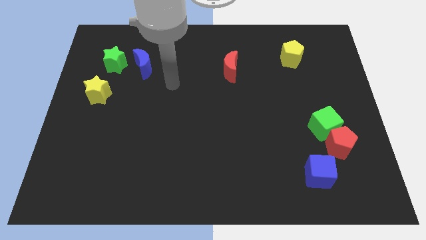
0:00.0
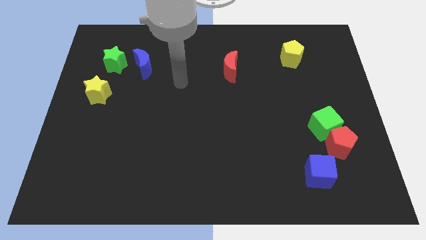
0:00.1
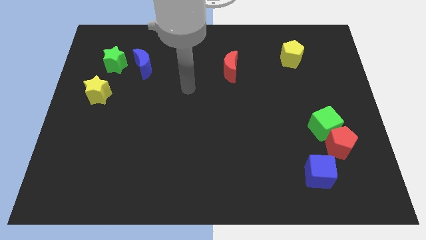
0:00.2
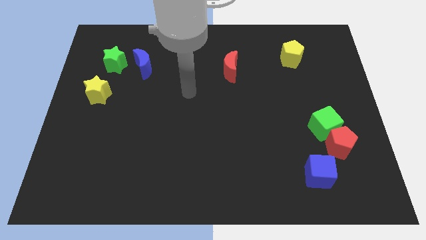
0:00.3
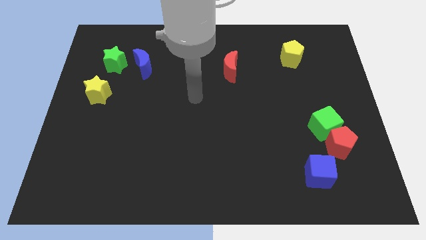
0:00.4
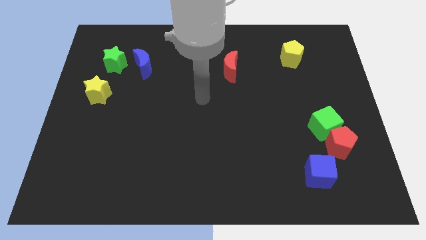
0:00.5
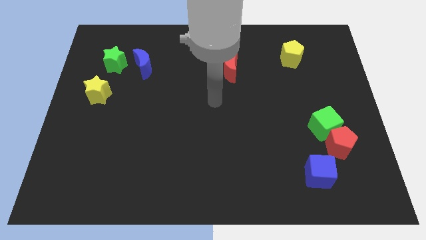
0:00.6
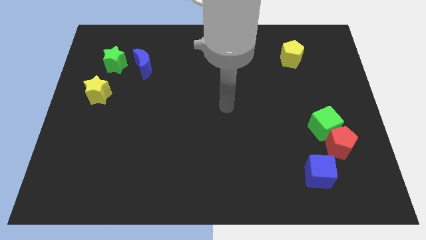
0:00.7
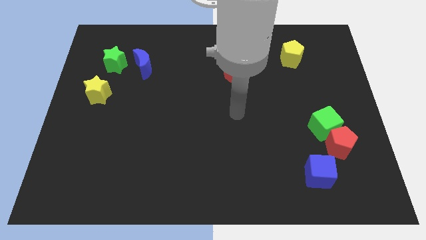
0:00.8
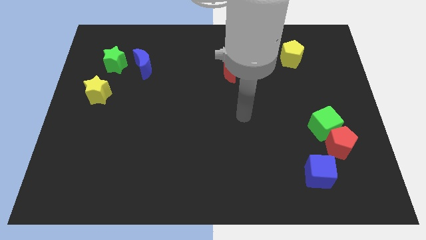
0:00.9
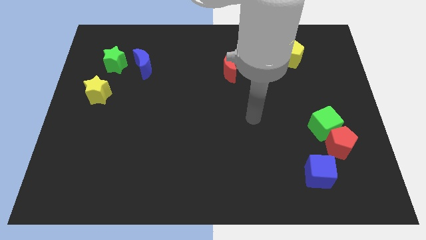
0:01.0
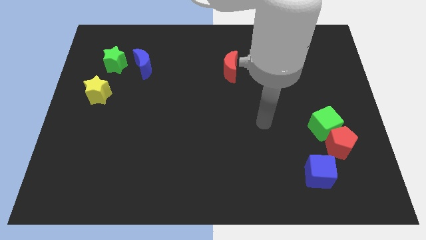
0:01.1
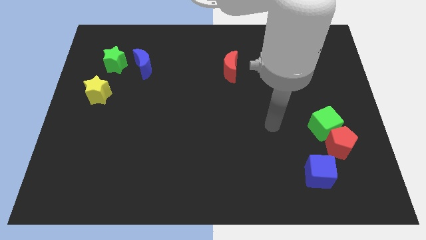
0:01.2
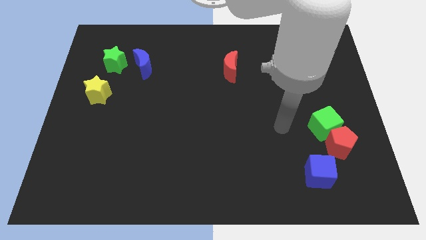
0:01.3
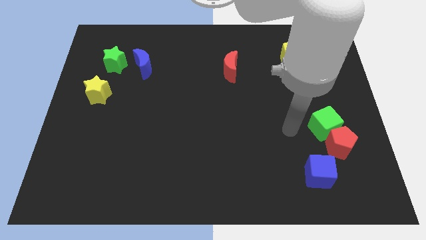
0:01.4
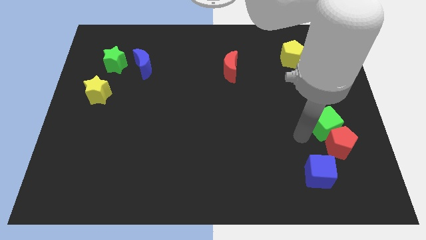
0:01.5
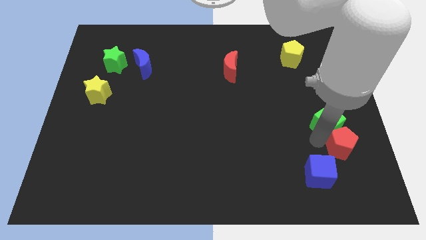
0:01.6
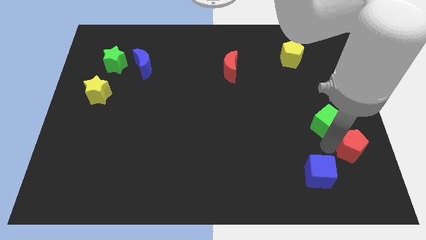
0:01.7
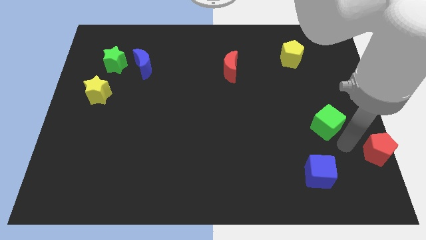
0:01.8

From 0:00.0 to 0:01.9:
separate the green cube from the red pentagon

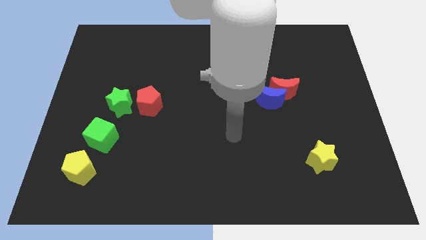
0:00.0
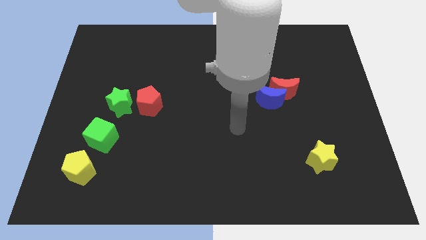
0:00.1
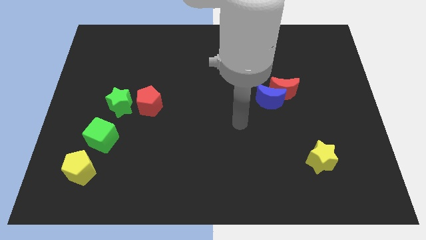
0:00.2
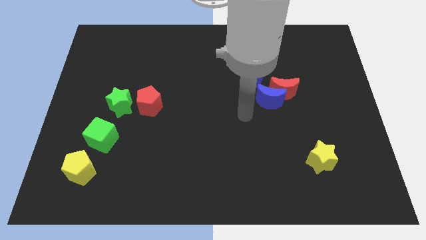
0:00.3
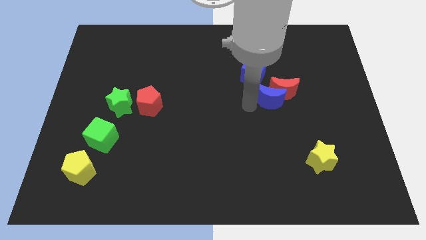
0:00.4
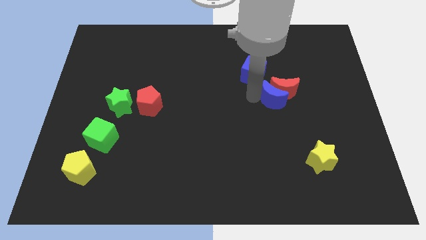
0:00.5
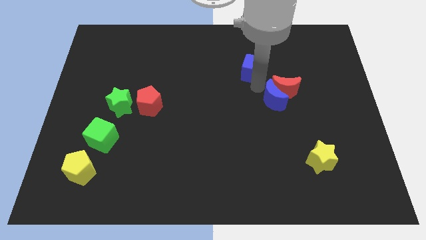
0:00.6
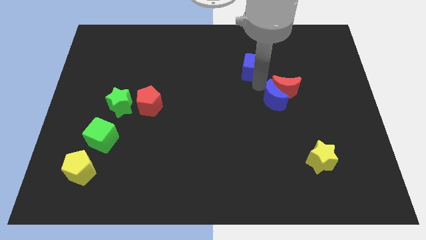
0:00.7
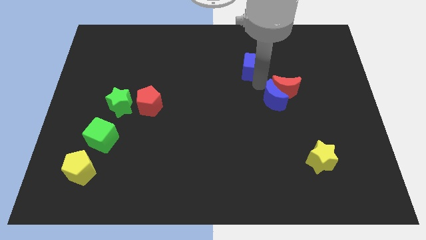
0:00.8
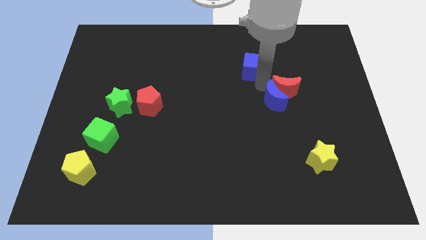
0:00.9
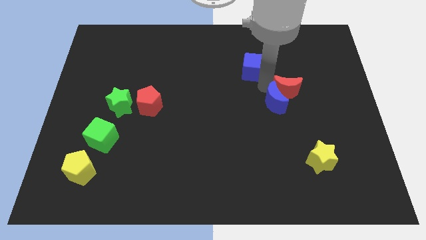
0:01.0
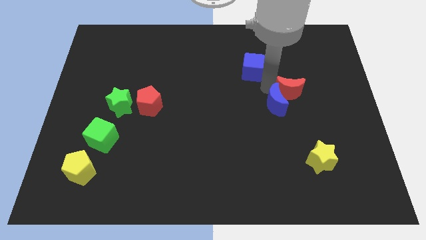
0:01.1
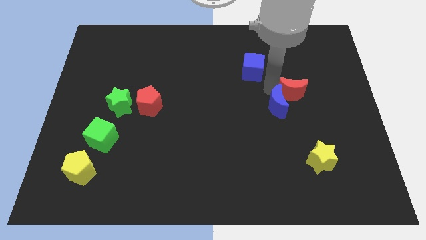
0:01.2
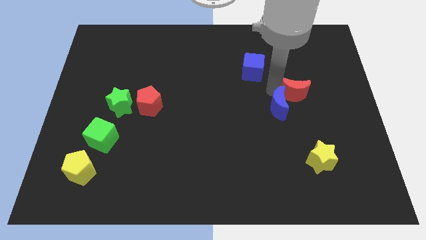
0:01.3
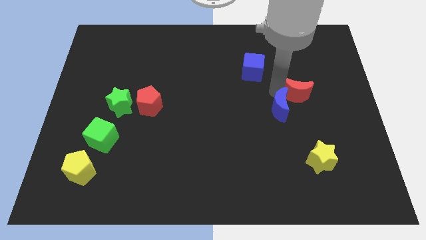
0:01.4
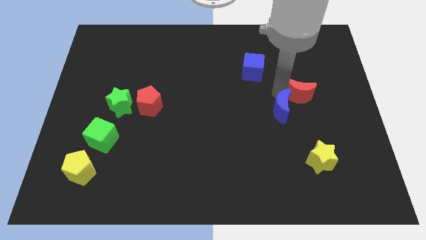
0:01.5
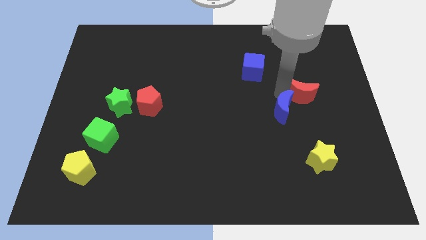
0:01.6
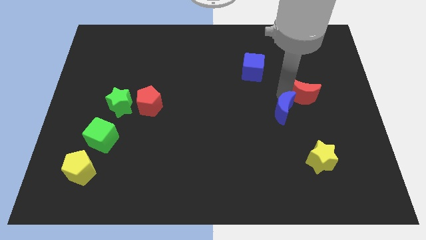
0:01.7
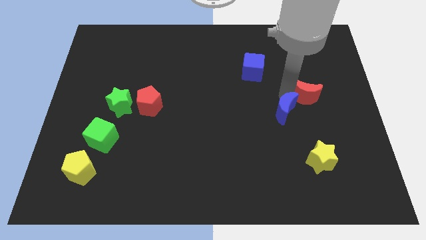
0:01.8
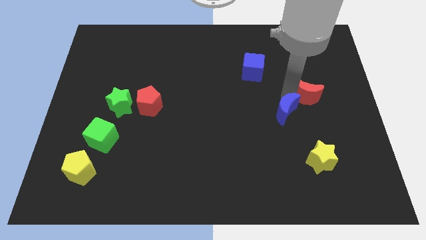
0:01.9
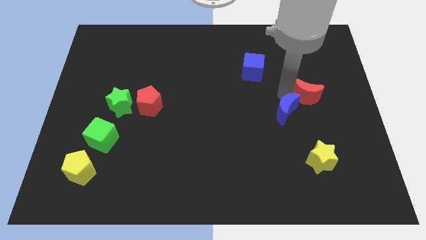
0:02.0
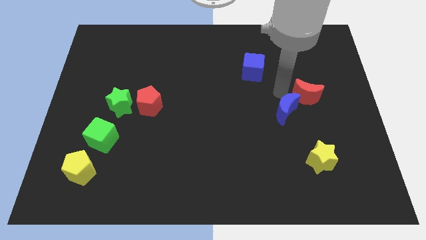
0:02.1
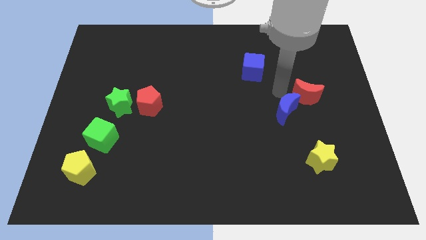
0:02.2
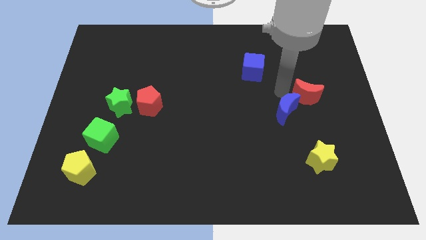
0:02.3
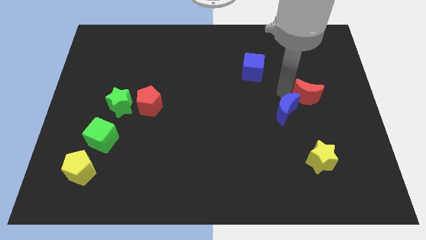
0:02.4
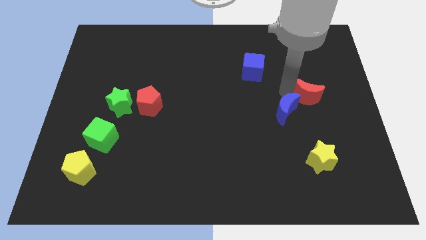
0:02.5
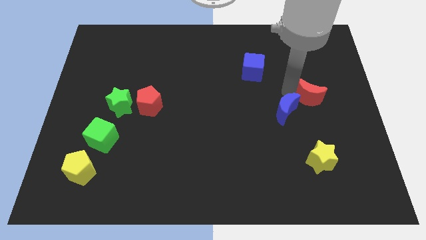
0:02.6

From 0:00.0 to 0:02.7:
pull the red moon apart from the blue moon and blue cube

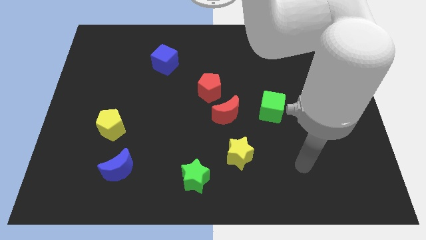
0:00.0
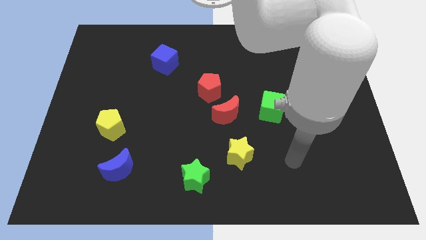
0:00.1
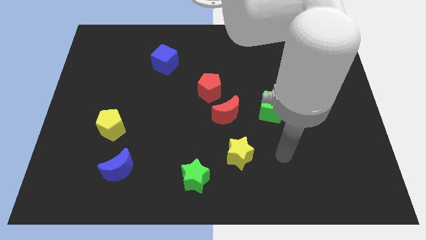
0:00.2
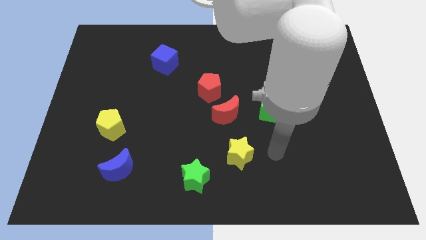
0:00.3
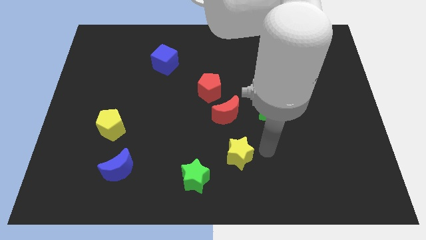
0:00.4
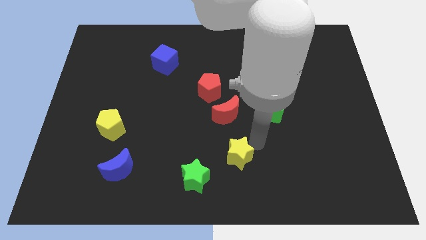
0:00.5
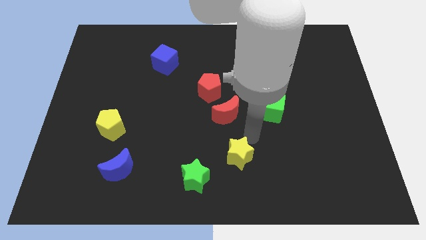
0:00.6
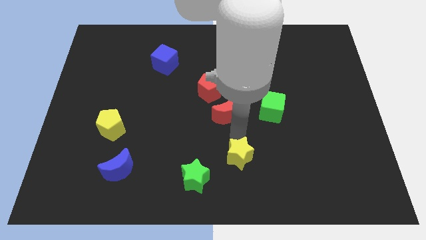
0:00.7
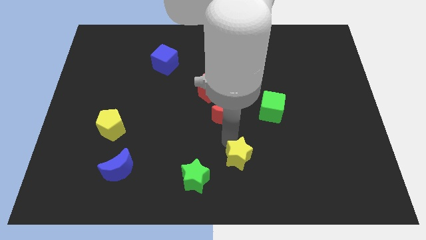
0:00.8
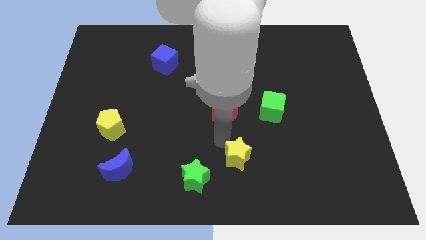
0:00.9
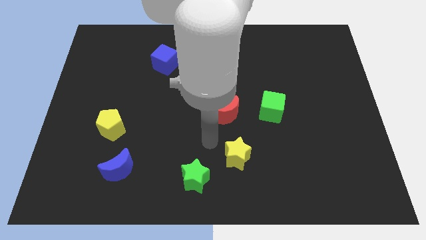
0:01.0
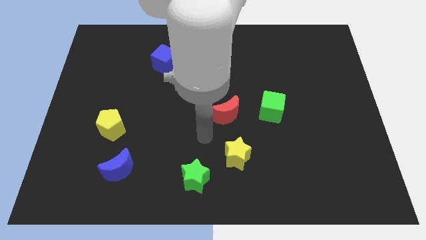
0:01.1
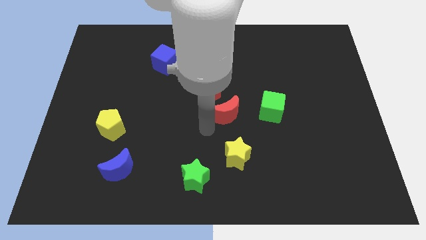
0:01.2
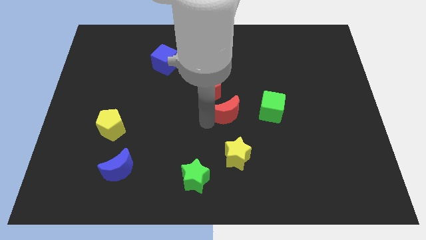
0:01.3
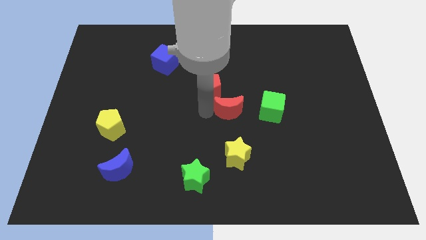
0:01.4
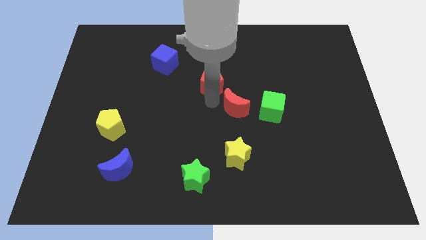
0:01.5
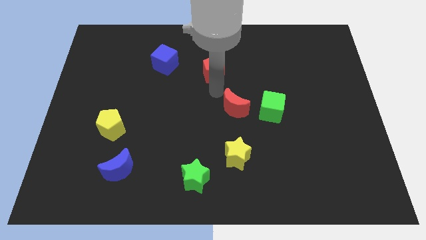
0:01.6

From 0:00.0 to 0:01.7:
separate the red moon from the red pentagon

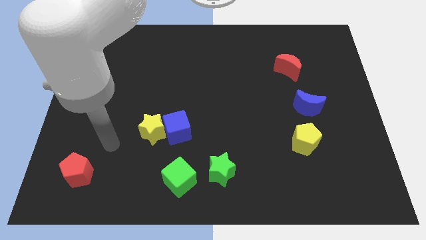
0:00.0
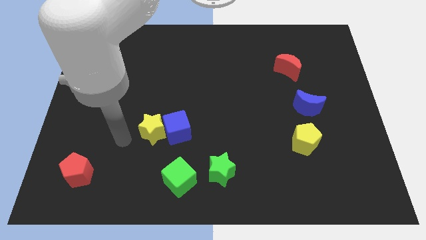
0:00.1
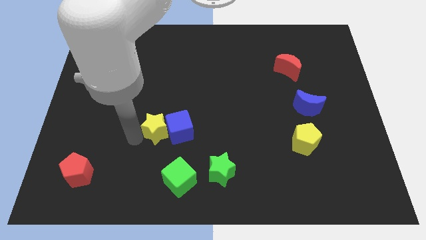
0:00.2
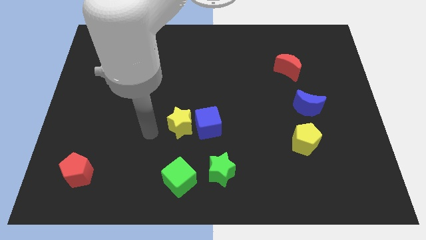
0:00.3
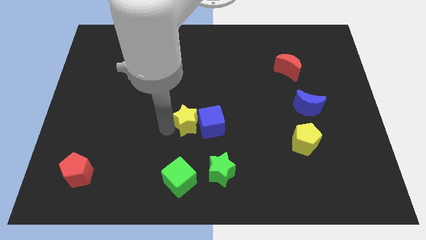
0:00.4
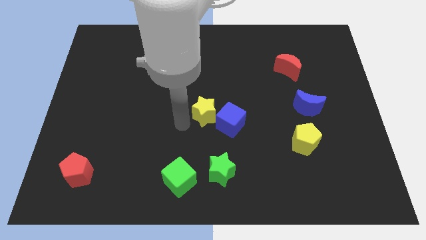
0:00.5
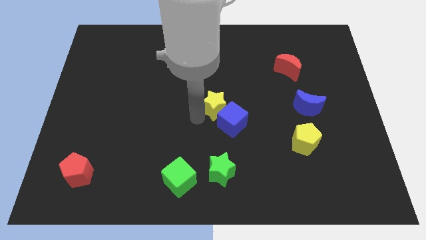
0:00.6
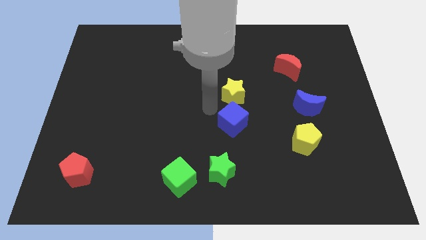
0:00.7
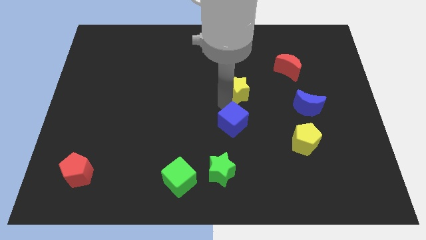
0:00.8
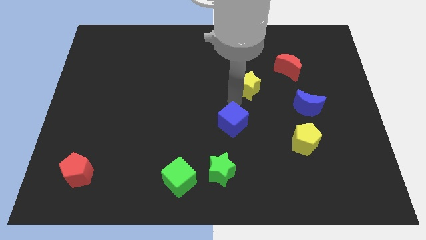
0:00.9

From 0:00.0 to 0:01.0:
separate the blue cube from the yellow star

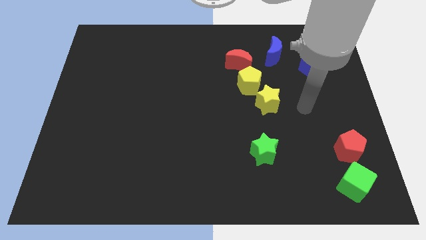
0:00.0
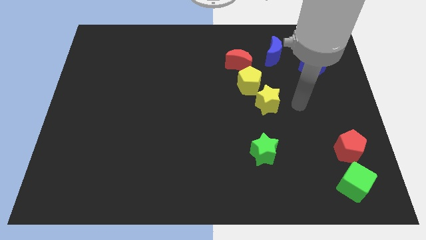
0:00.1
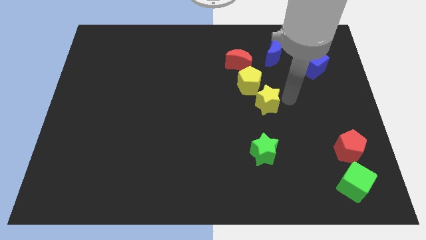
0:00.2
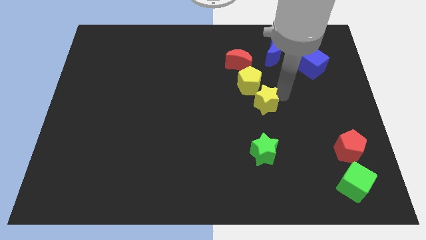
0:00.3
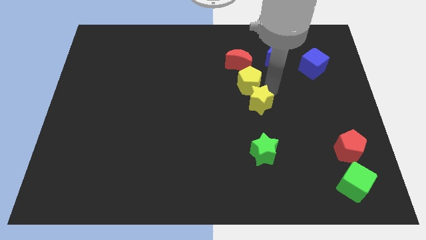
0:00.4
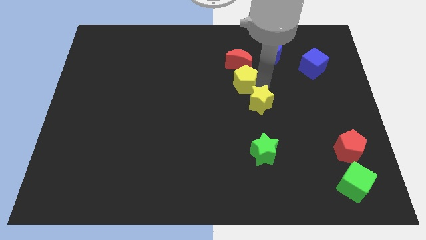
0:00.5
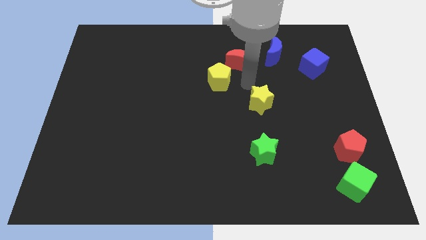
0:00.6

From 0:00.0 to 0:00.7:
move the yellow star away from the yellow pentagon

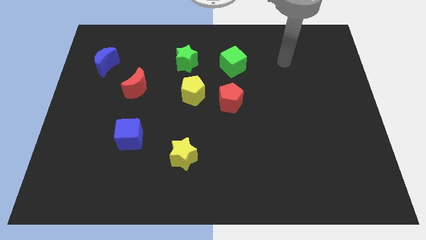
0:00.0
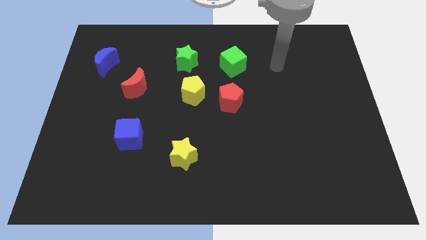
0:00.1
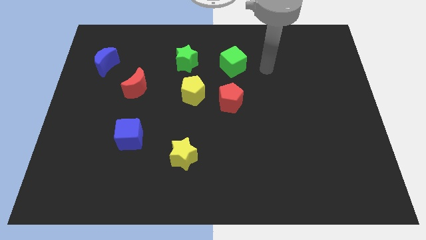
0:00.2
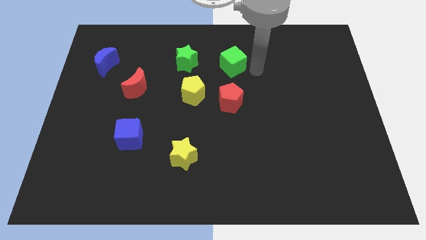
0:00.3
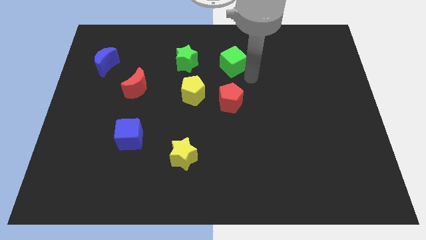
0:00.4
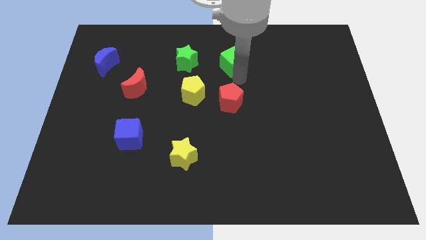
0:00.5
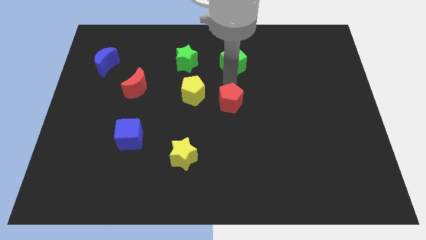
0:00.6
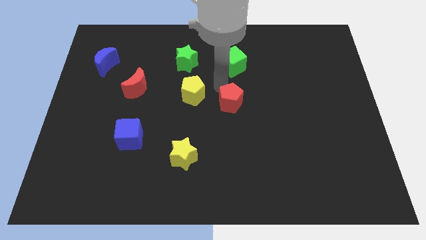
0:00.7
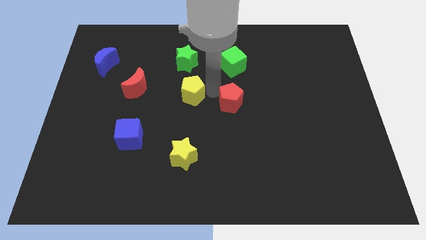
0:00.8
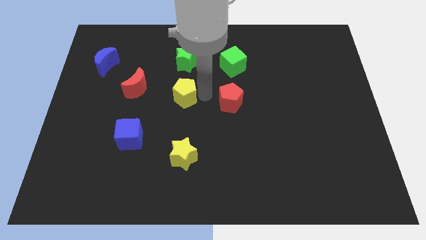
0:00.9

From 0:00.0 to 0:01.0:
separate the red pentagon from the yellow pentagon

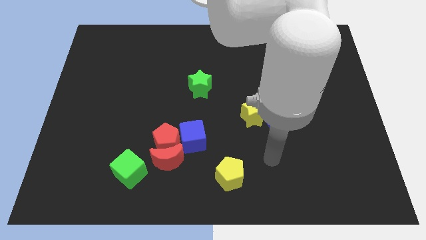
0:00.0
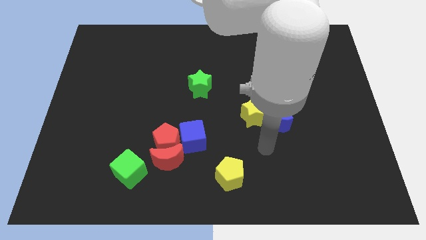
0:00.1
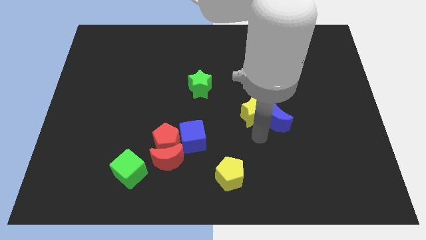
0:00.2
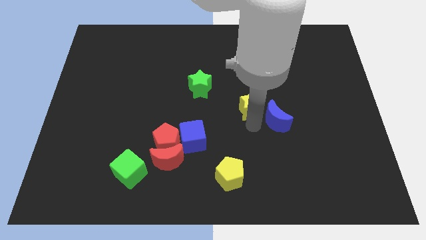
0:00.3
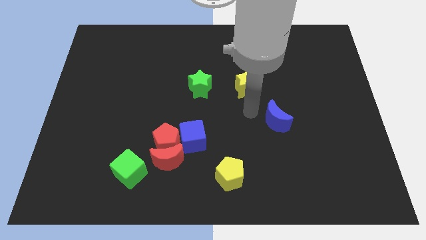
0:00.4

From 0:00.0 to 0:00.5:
separate the blue moon from the yellow star
